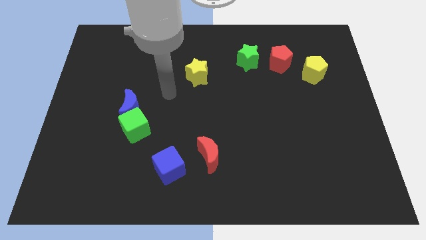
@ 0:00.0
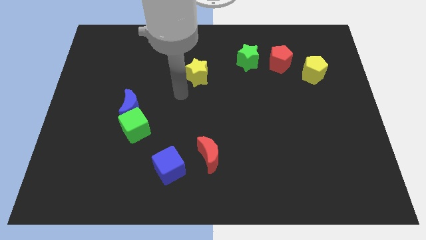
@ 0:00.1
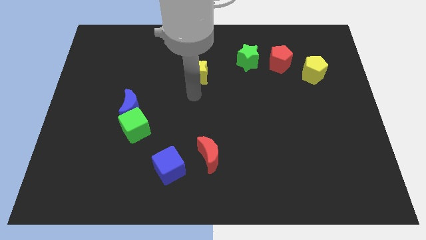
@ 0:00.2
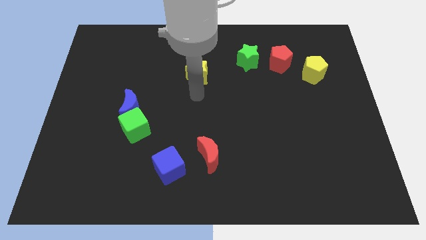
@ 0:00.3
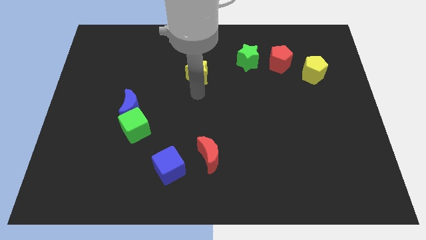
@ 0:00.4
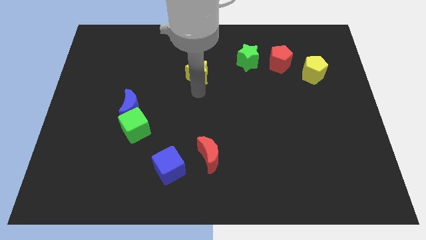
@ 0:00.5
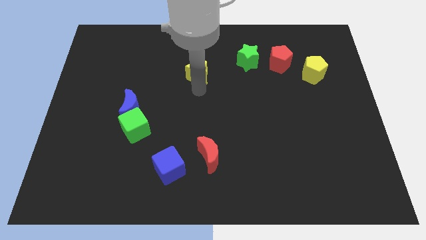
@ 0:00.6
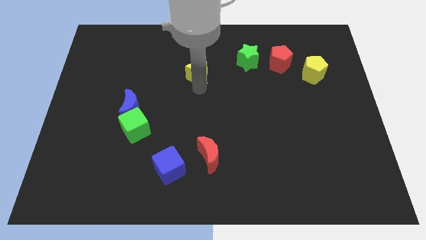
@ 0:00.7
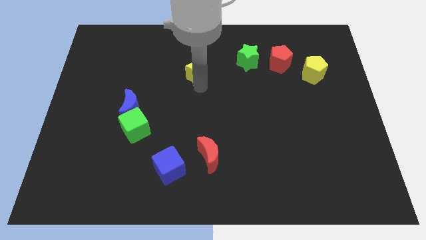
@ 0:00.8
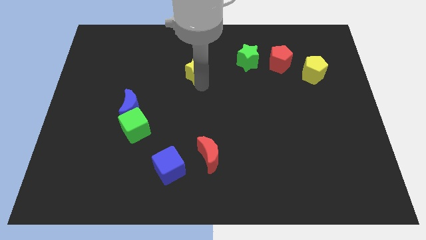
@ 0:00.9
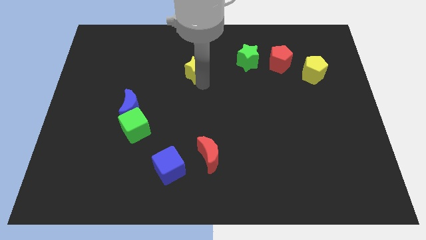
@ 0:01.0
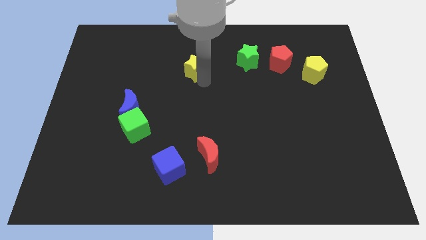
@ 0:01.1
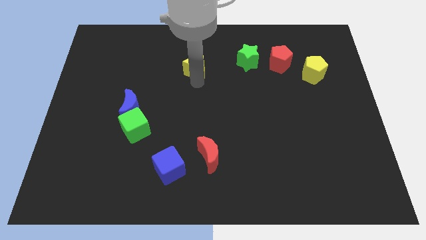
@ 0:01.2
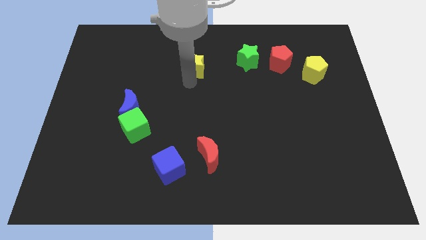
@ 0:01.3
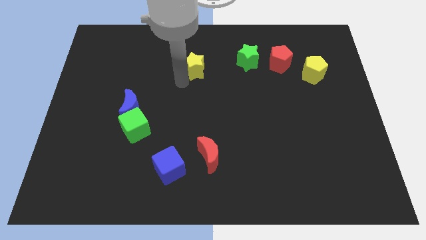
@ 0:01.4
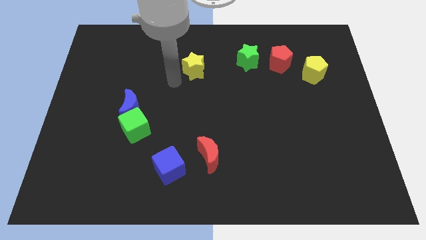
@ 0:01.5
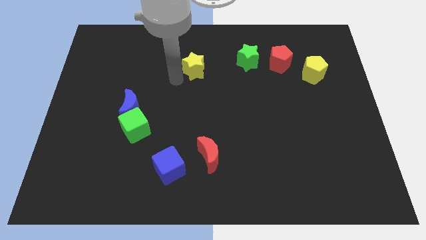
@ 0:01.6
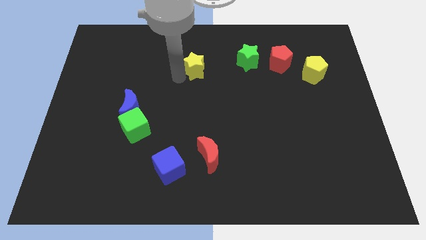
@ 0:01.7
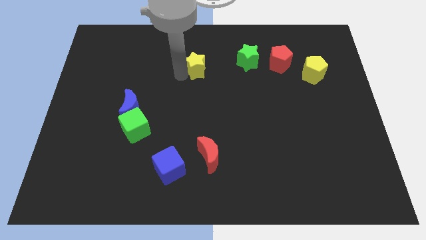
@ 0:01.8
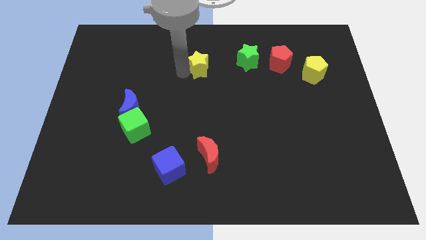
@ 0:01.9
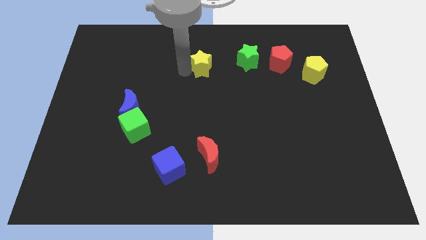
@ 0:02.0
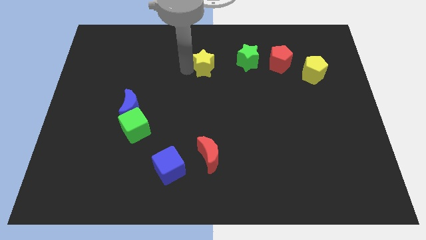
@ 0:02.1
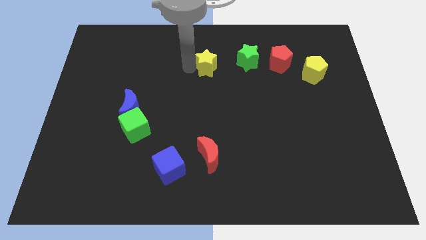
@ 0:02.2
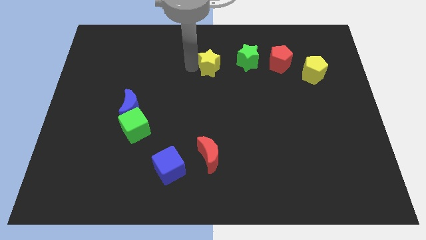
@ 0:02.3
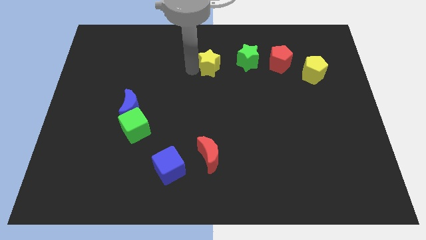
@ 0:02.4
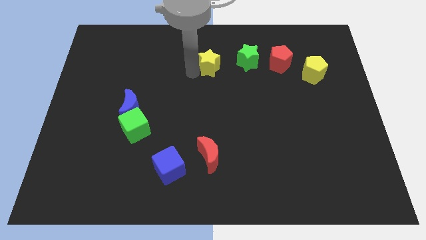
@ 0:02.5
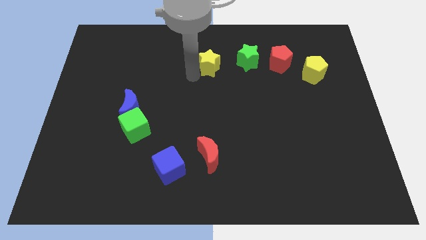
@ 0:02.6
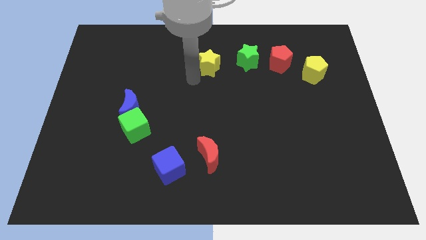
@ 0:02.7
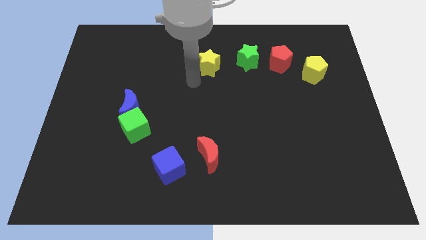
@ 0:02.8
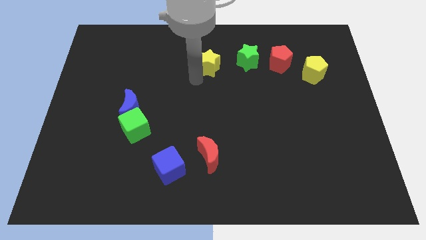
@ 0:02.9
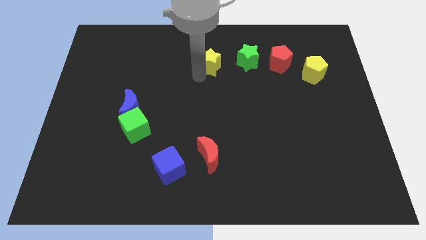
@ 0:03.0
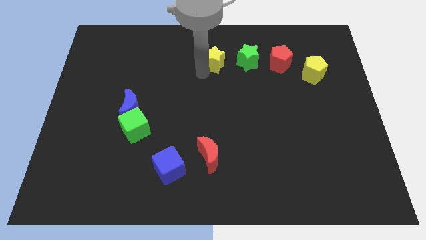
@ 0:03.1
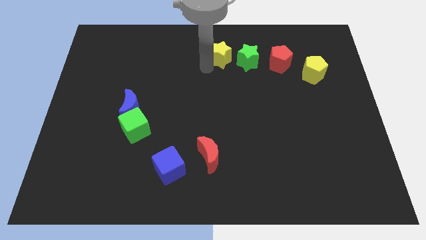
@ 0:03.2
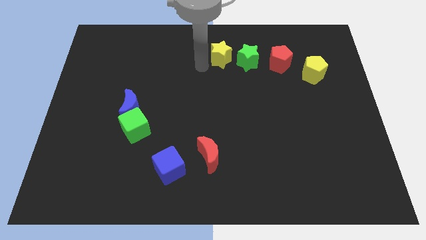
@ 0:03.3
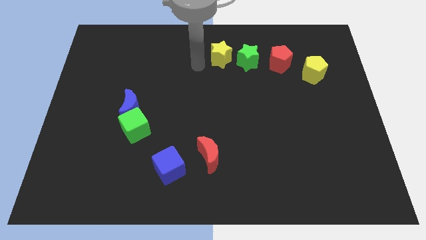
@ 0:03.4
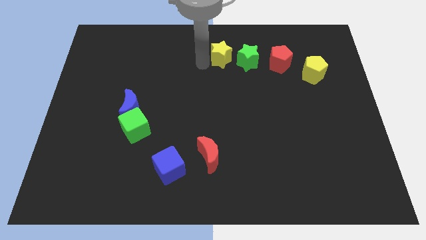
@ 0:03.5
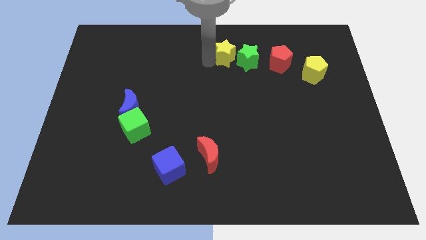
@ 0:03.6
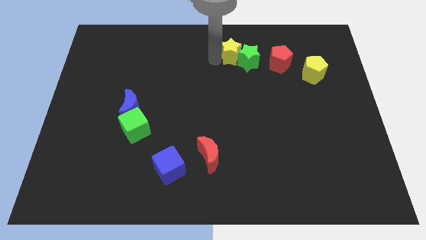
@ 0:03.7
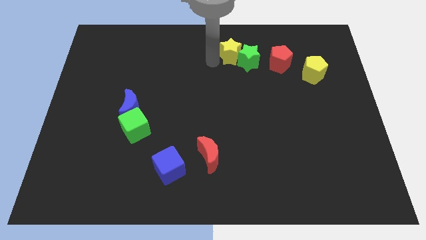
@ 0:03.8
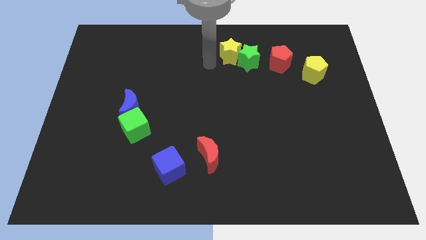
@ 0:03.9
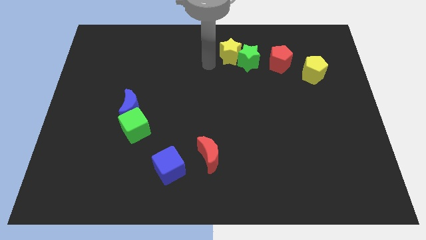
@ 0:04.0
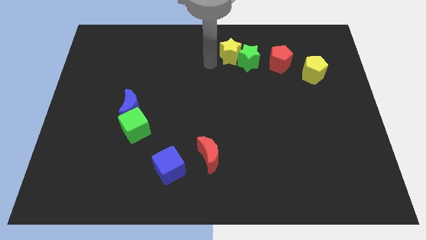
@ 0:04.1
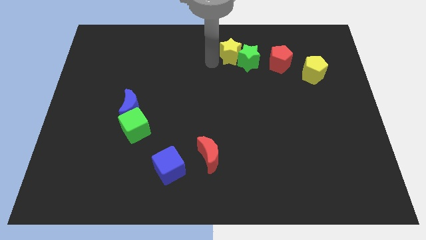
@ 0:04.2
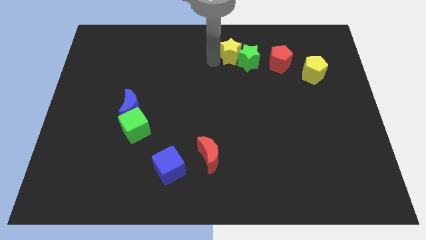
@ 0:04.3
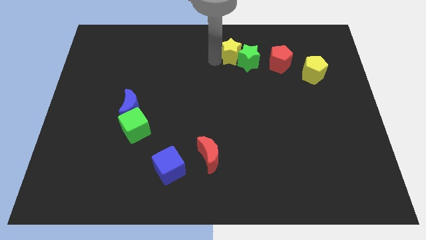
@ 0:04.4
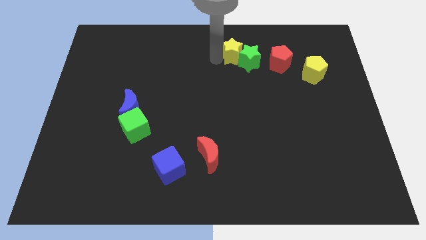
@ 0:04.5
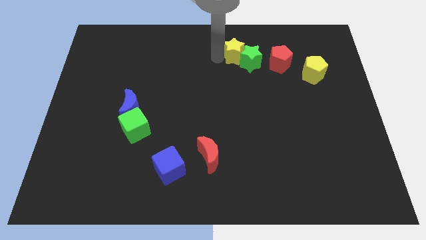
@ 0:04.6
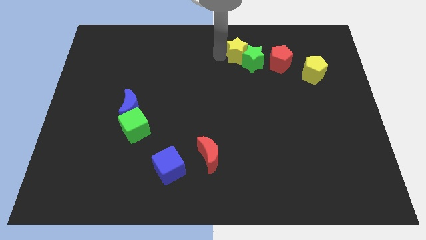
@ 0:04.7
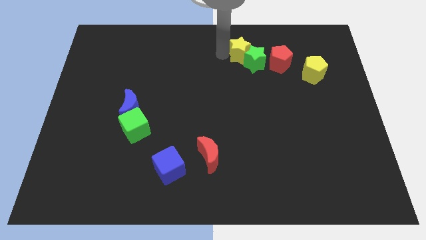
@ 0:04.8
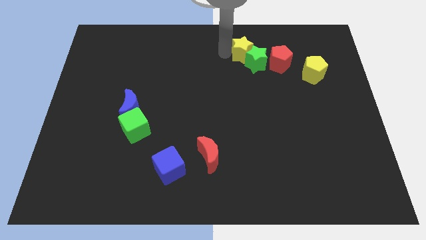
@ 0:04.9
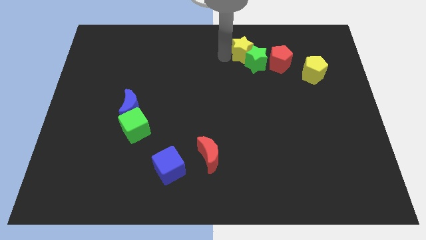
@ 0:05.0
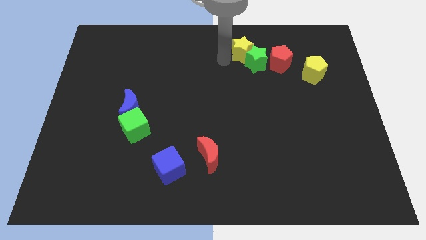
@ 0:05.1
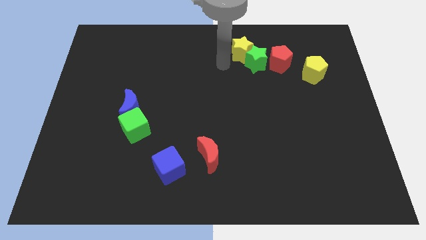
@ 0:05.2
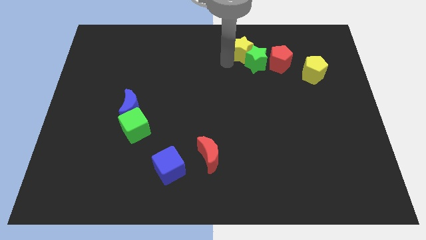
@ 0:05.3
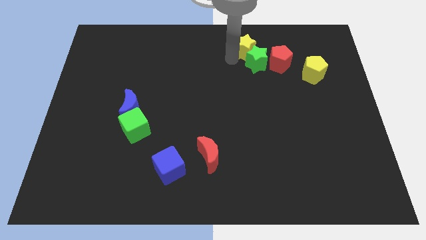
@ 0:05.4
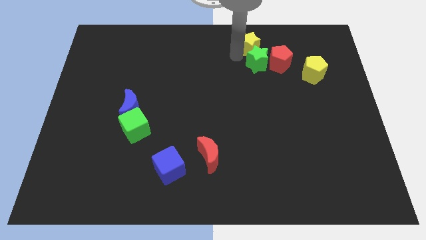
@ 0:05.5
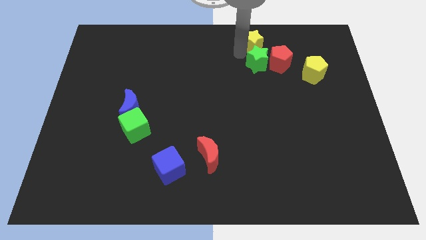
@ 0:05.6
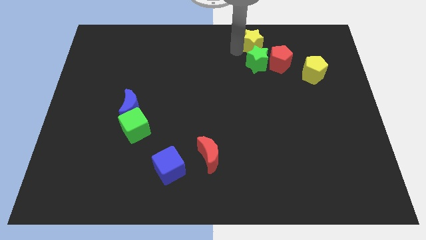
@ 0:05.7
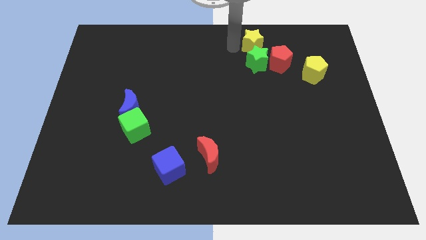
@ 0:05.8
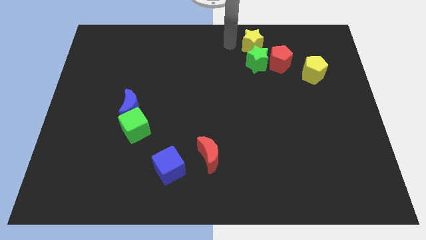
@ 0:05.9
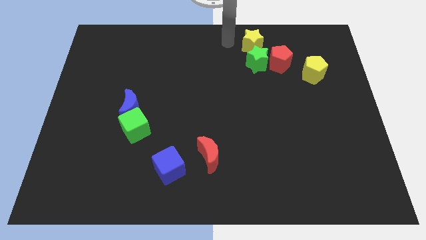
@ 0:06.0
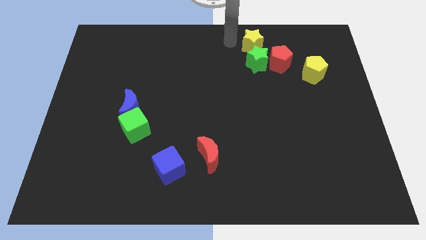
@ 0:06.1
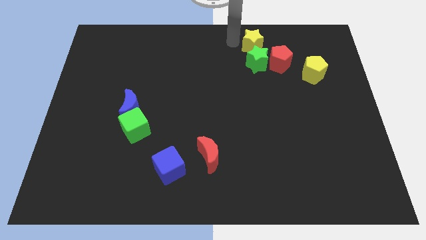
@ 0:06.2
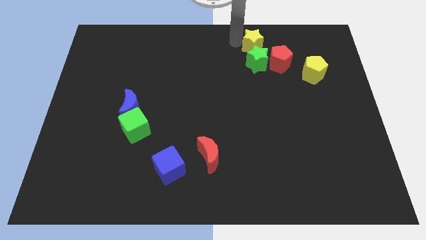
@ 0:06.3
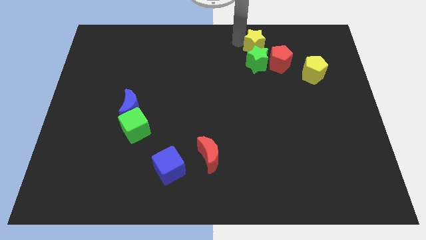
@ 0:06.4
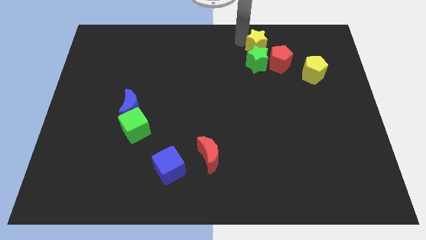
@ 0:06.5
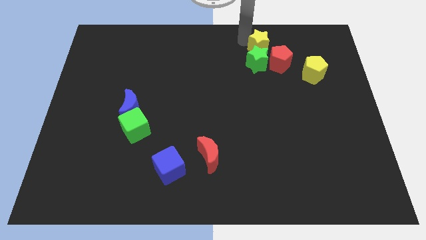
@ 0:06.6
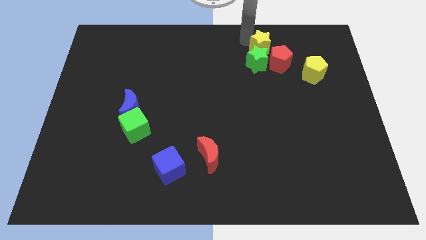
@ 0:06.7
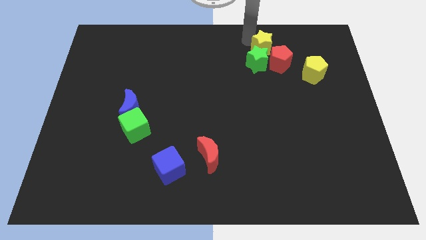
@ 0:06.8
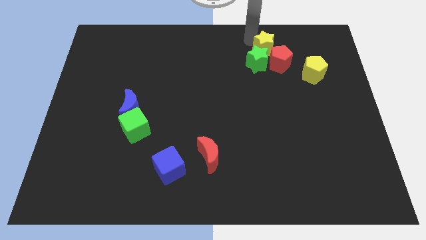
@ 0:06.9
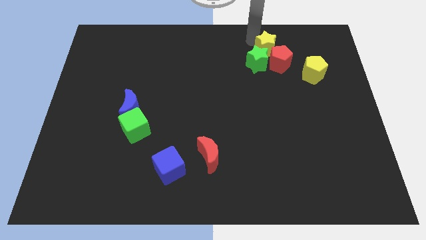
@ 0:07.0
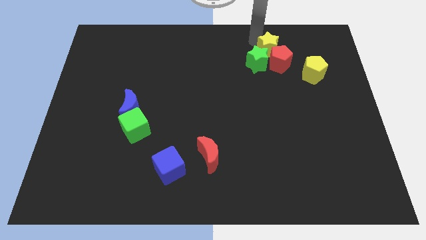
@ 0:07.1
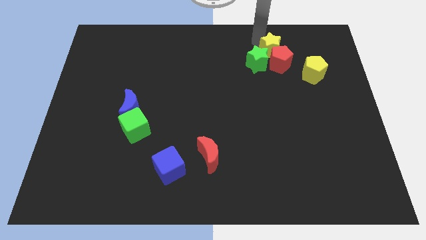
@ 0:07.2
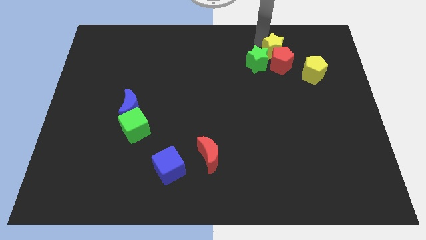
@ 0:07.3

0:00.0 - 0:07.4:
move the yellow star to the top left of the yellow pentagon
